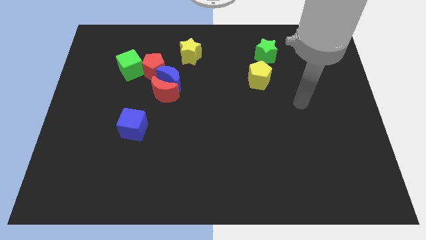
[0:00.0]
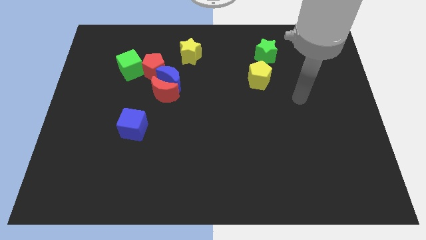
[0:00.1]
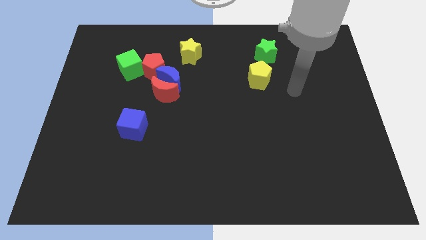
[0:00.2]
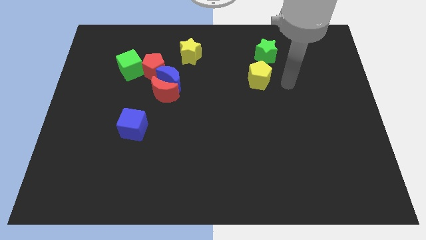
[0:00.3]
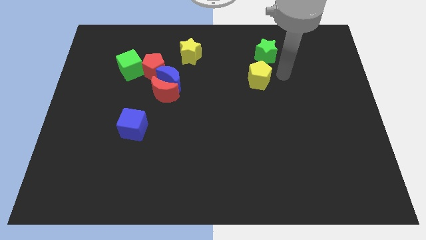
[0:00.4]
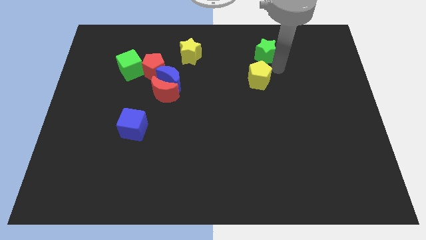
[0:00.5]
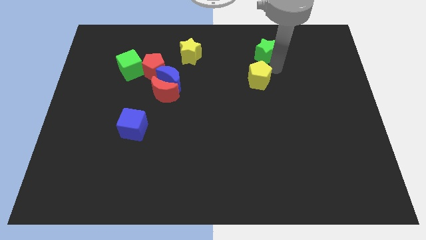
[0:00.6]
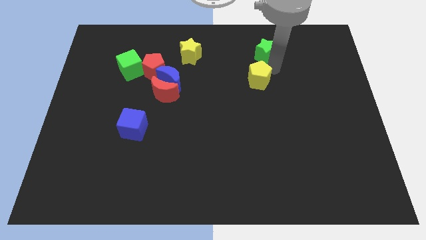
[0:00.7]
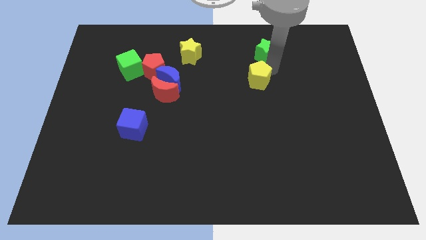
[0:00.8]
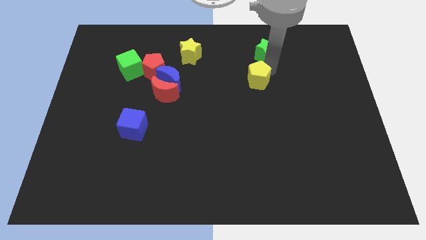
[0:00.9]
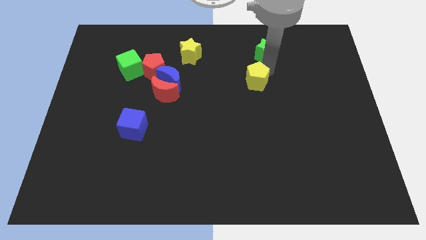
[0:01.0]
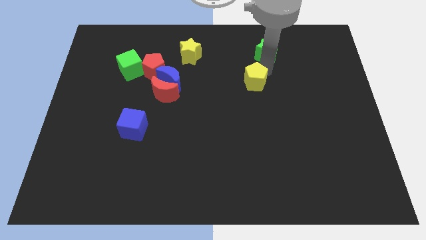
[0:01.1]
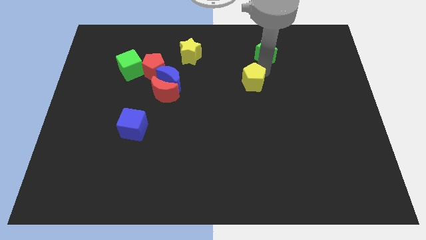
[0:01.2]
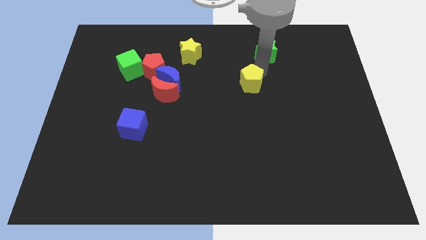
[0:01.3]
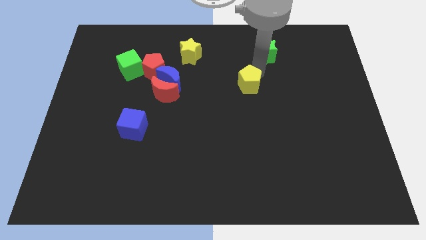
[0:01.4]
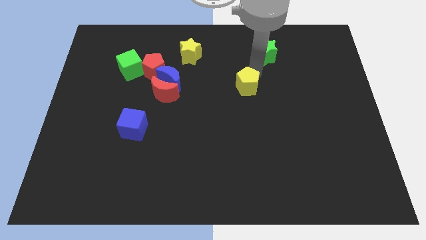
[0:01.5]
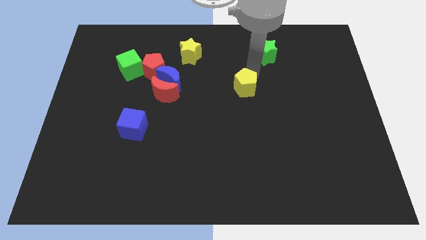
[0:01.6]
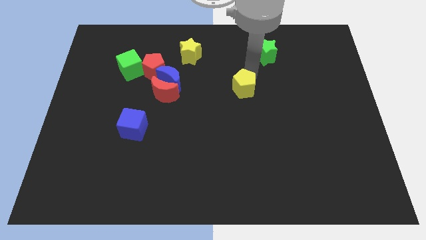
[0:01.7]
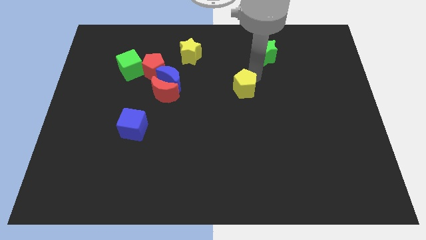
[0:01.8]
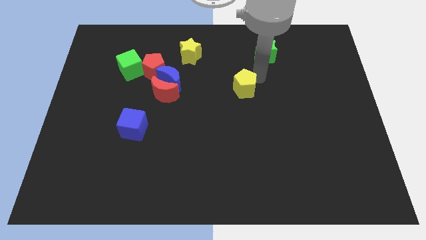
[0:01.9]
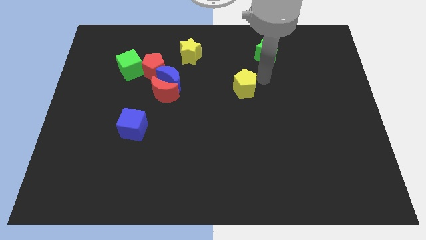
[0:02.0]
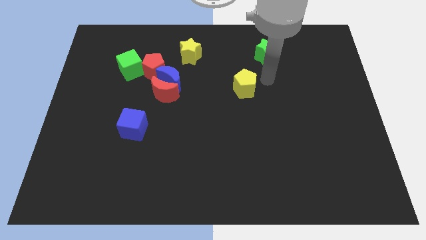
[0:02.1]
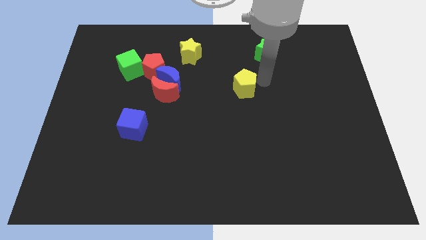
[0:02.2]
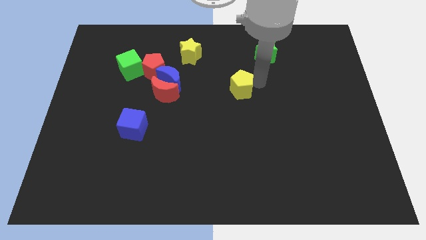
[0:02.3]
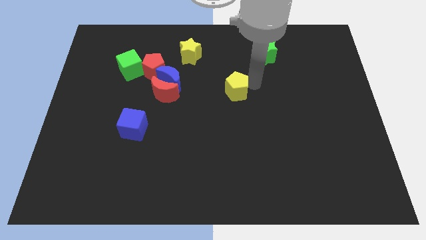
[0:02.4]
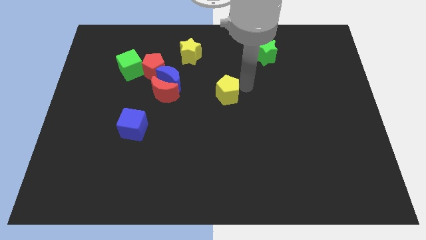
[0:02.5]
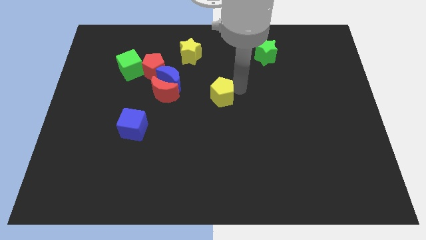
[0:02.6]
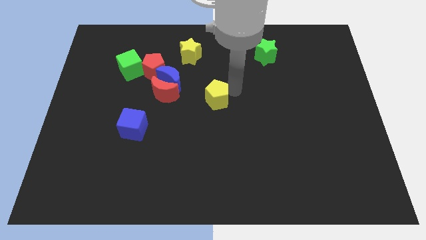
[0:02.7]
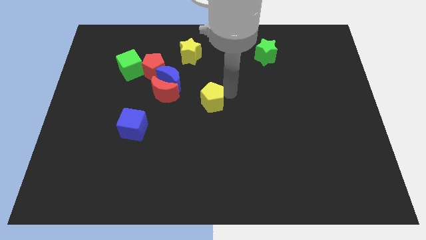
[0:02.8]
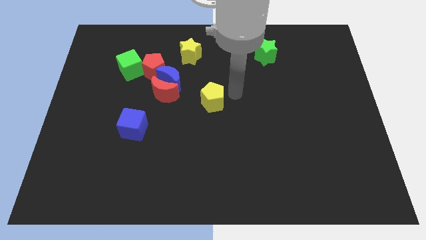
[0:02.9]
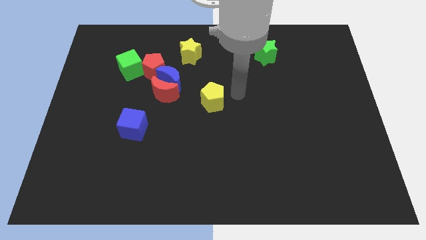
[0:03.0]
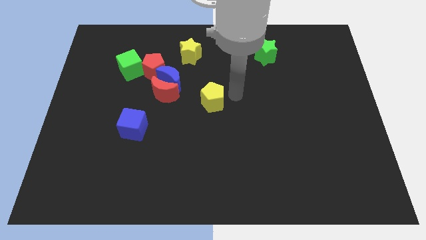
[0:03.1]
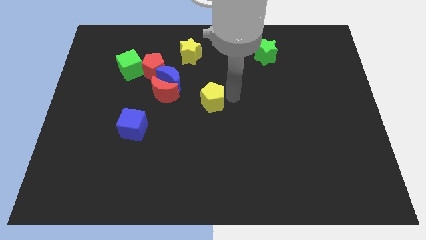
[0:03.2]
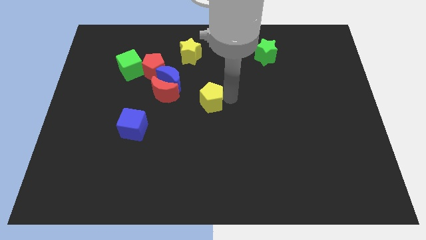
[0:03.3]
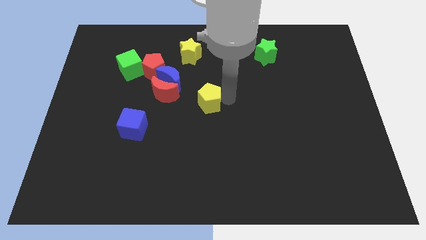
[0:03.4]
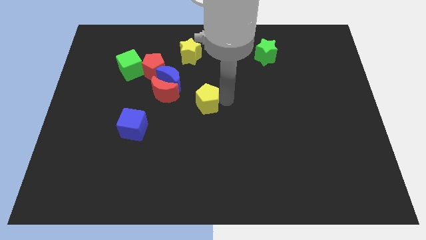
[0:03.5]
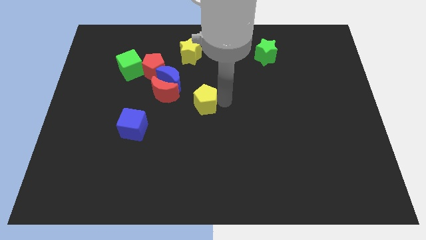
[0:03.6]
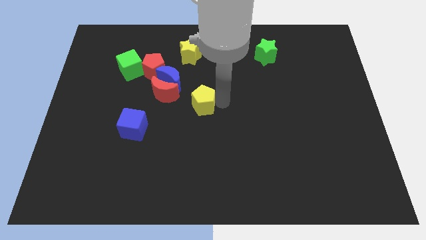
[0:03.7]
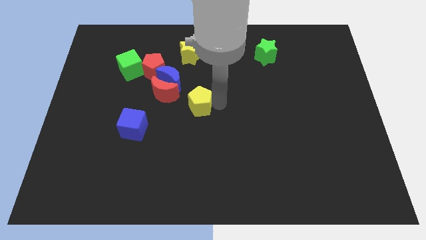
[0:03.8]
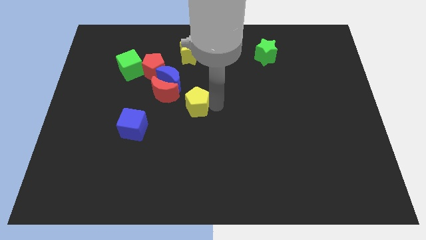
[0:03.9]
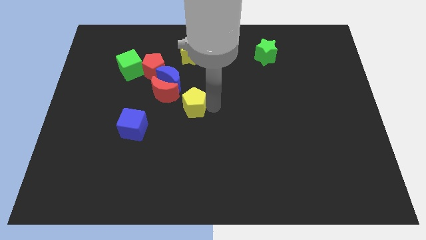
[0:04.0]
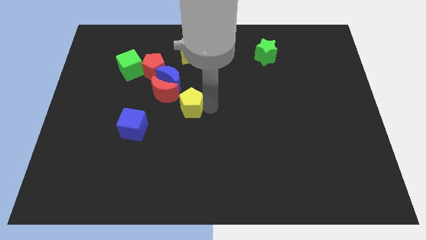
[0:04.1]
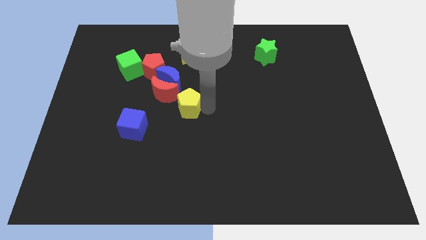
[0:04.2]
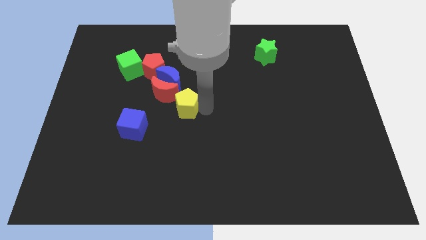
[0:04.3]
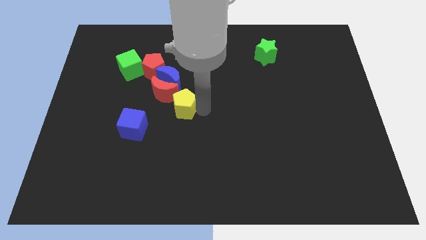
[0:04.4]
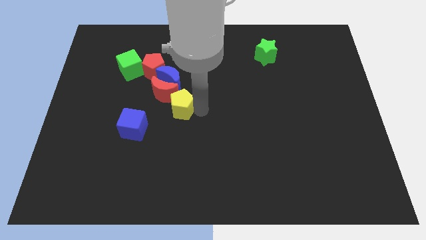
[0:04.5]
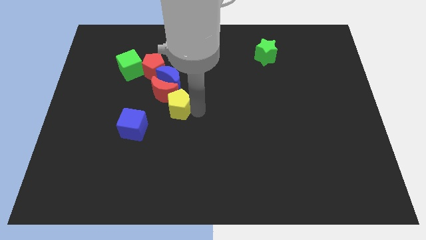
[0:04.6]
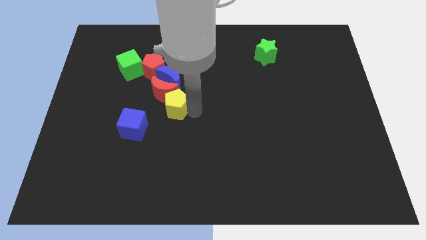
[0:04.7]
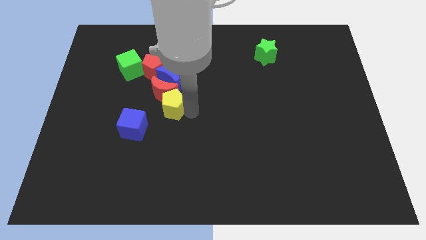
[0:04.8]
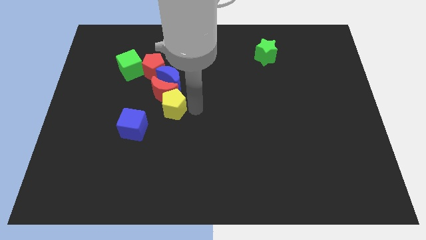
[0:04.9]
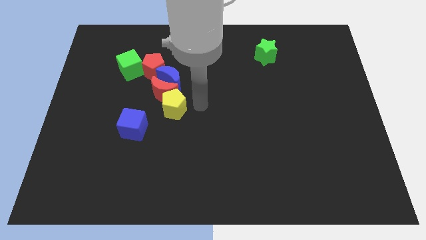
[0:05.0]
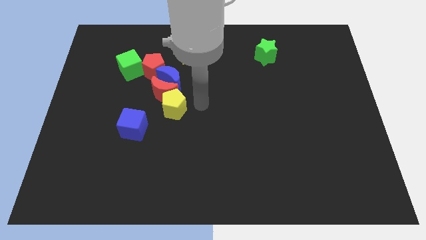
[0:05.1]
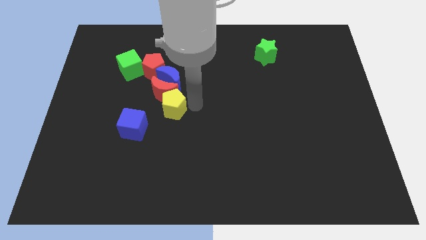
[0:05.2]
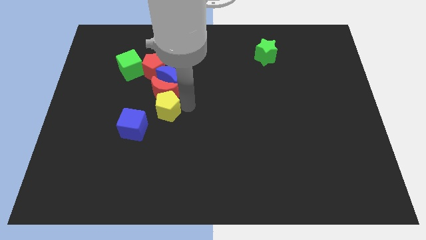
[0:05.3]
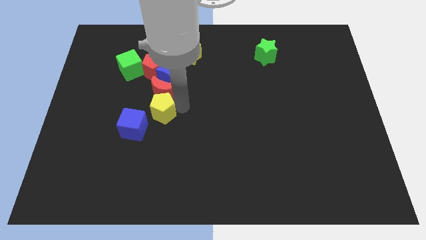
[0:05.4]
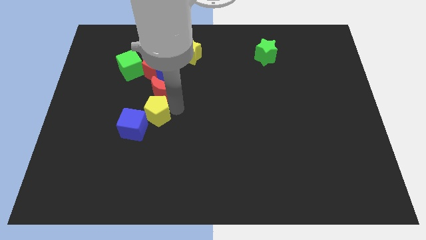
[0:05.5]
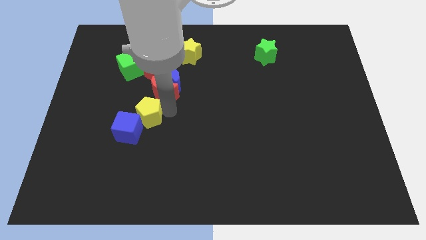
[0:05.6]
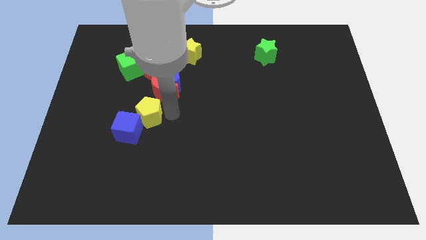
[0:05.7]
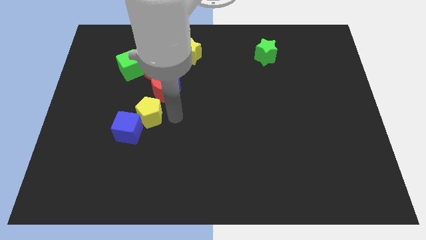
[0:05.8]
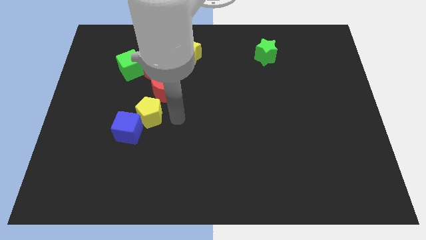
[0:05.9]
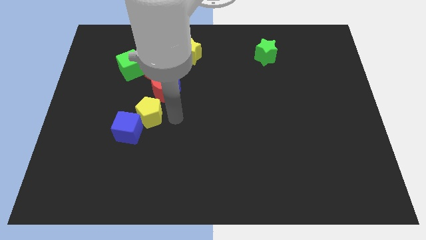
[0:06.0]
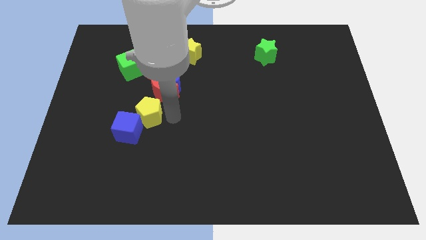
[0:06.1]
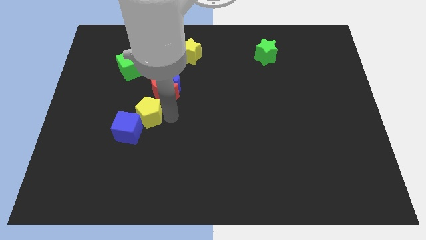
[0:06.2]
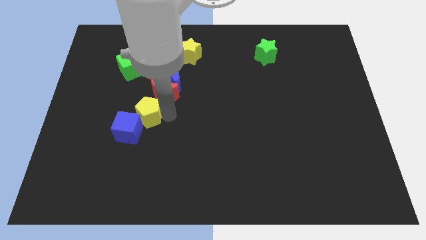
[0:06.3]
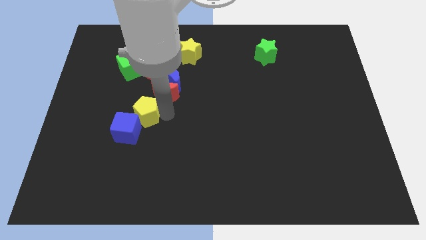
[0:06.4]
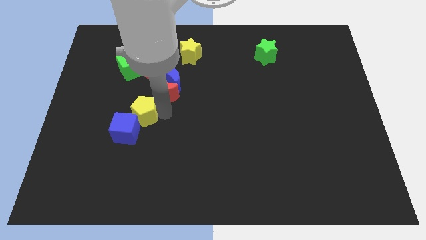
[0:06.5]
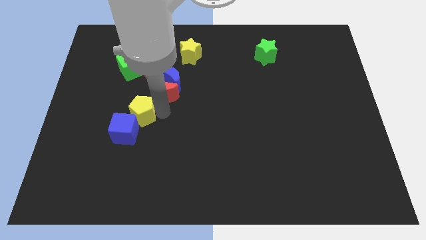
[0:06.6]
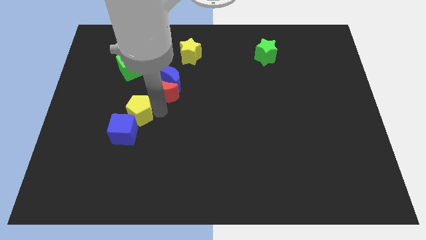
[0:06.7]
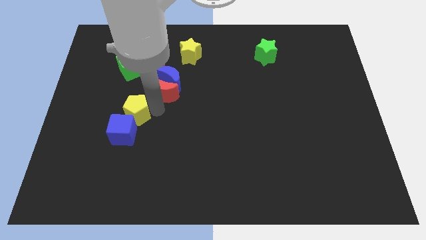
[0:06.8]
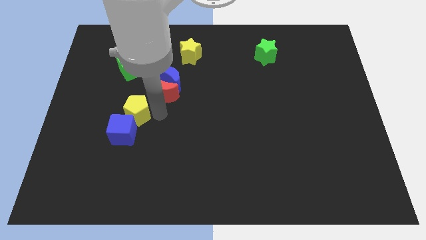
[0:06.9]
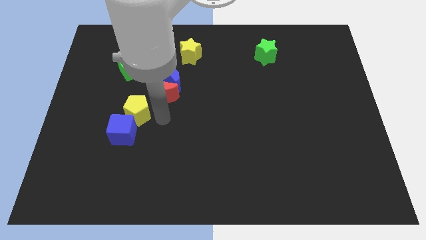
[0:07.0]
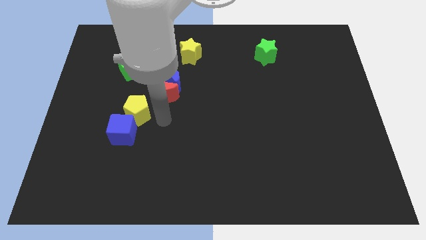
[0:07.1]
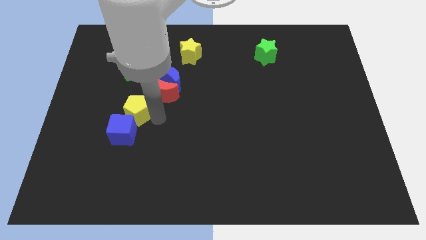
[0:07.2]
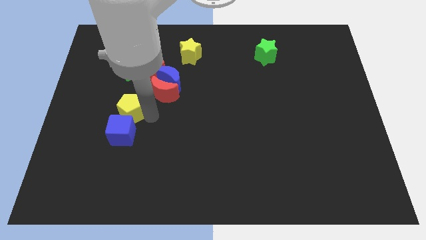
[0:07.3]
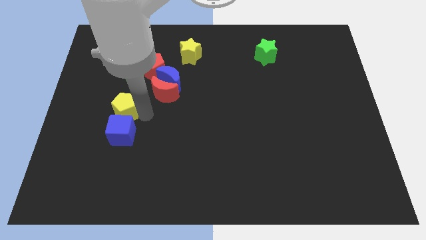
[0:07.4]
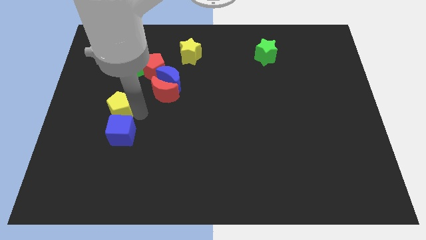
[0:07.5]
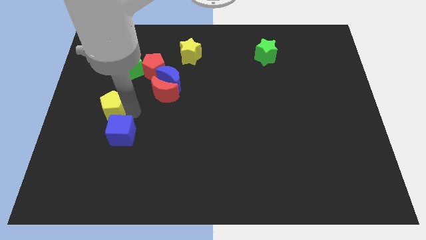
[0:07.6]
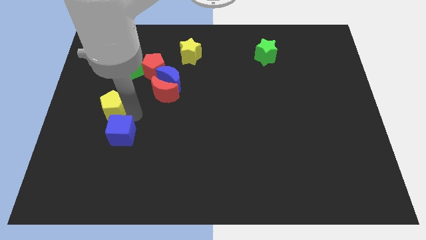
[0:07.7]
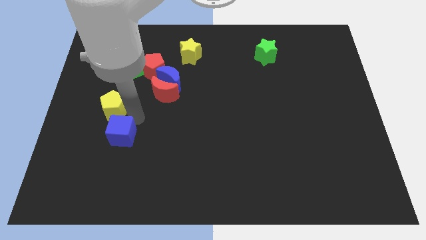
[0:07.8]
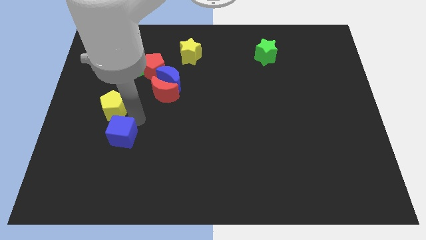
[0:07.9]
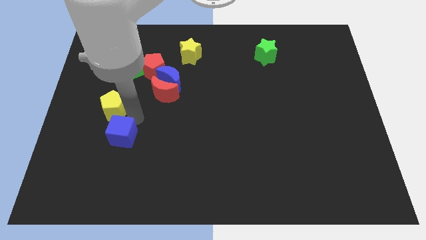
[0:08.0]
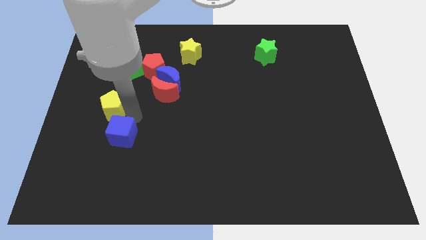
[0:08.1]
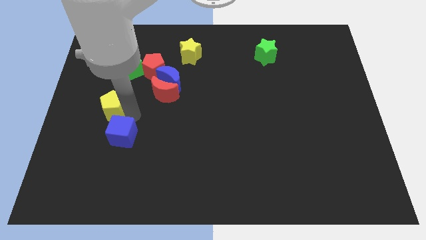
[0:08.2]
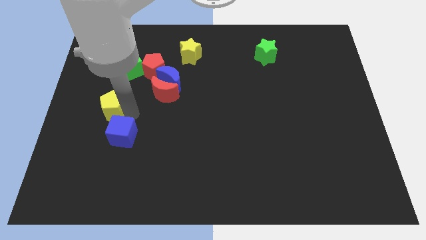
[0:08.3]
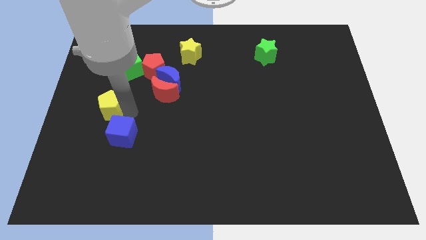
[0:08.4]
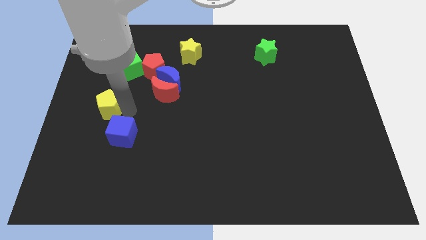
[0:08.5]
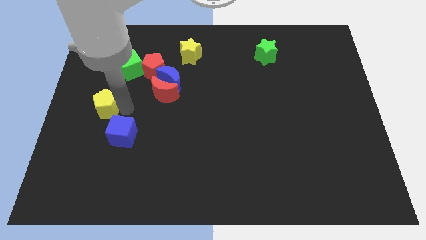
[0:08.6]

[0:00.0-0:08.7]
put the yellow pentagon to the left side
